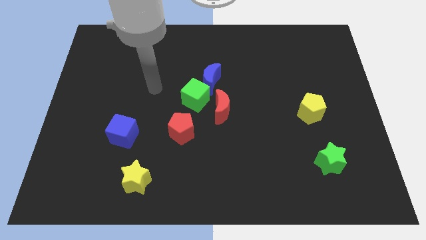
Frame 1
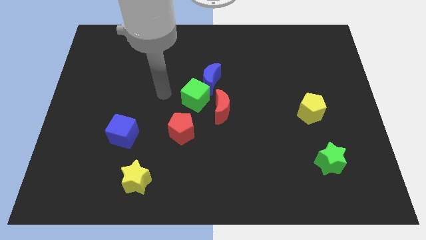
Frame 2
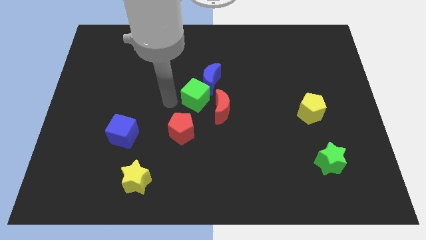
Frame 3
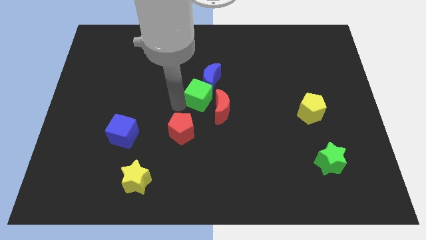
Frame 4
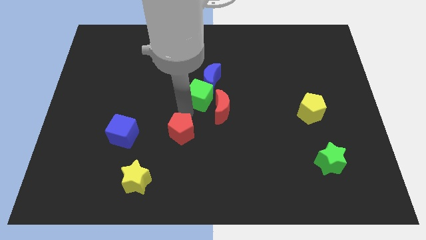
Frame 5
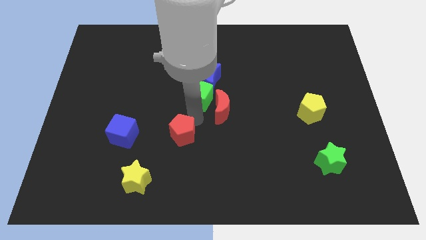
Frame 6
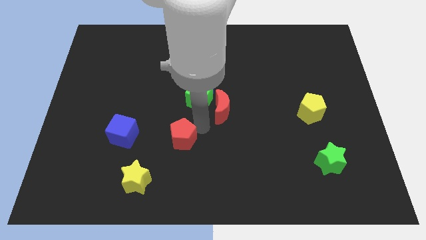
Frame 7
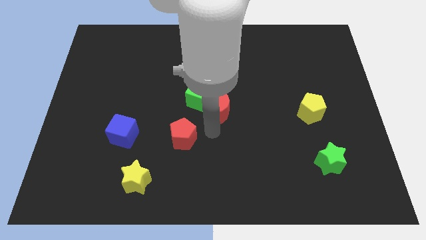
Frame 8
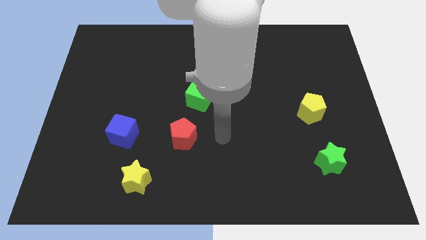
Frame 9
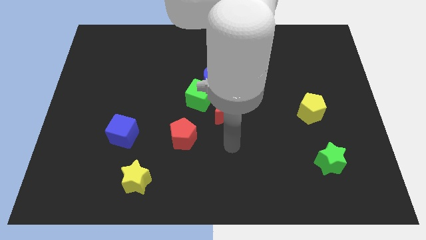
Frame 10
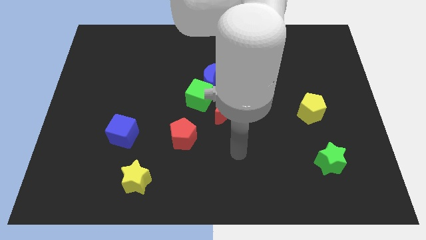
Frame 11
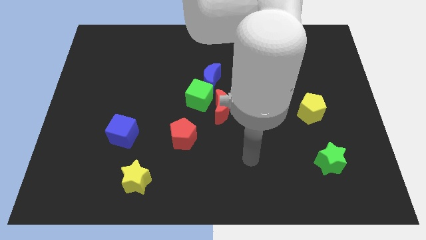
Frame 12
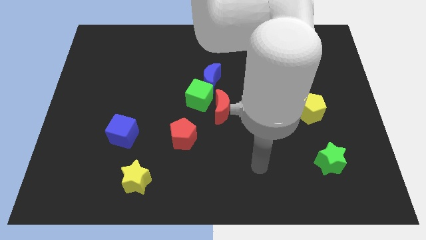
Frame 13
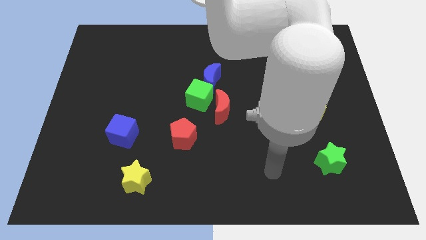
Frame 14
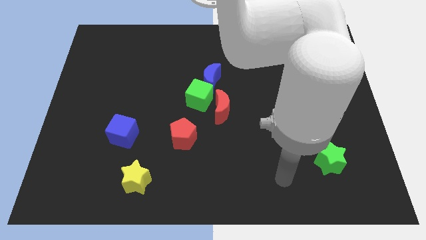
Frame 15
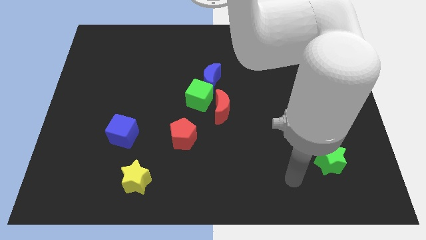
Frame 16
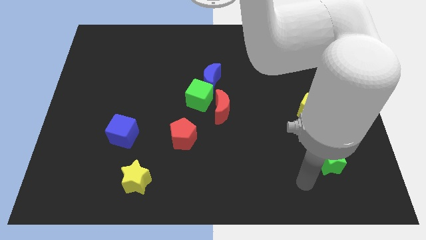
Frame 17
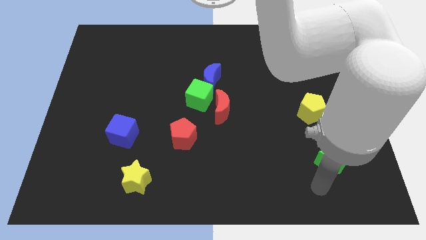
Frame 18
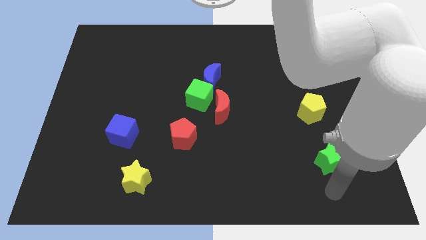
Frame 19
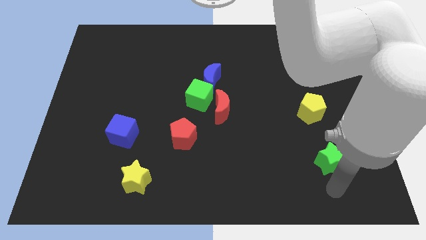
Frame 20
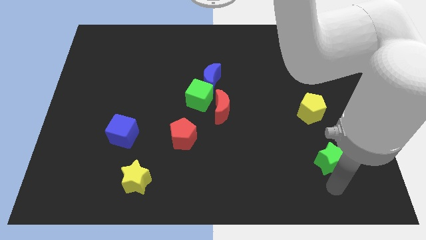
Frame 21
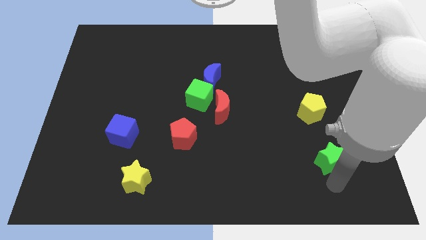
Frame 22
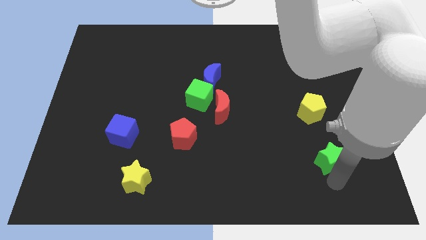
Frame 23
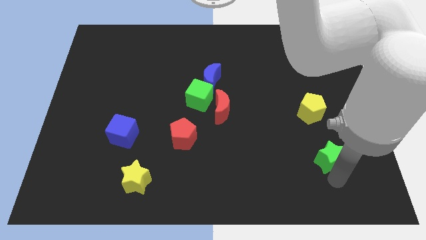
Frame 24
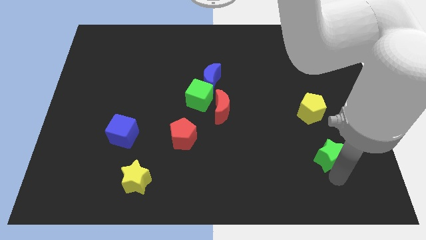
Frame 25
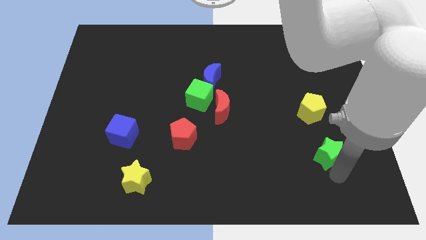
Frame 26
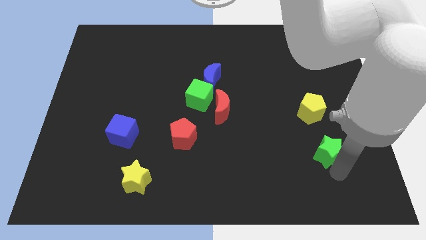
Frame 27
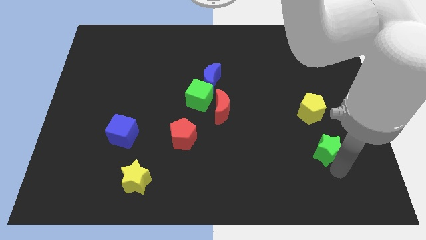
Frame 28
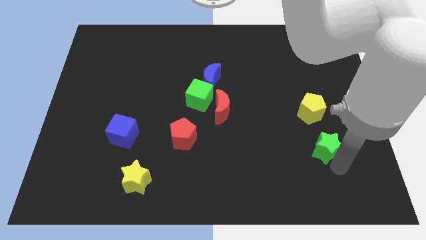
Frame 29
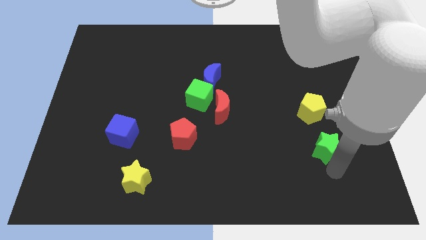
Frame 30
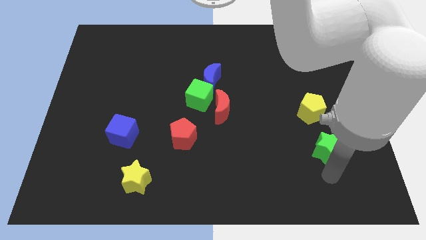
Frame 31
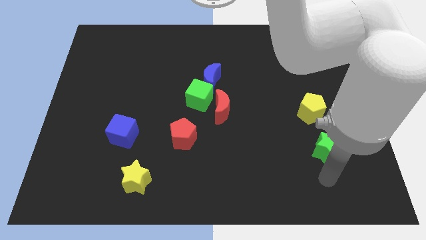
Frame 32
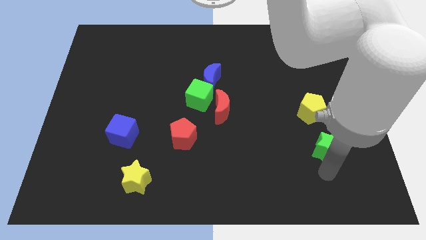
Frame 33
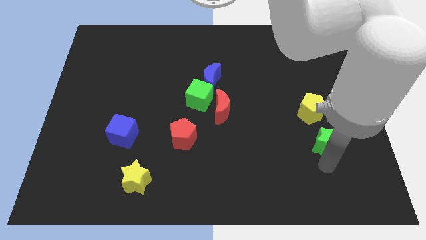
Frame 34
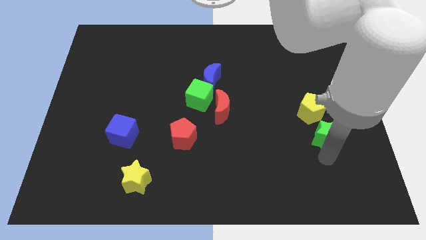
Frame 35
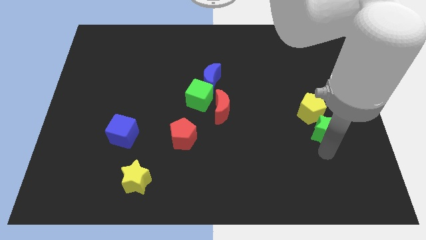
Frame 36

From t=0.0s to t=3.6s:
move the green star a bit upwards

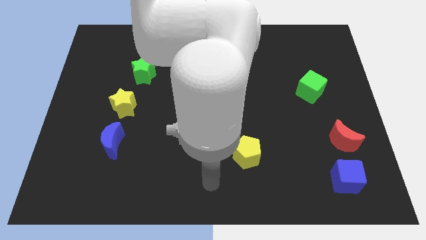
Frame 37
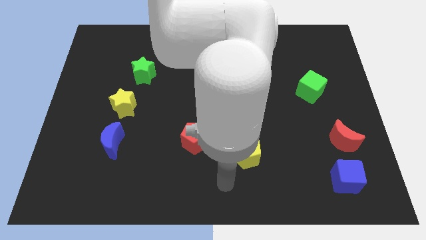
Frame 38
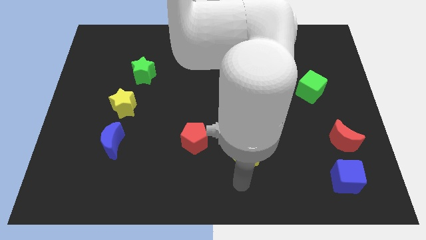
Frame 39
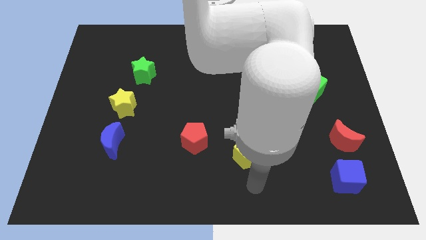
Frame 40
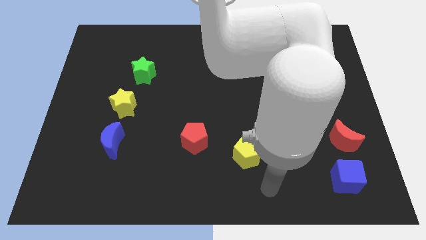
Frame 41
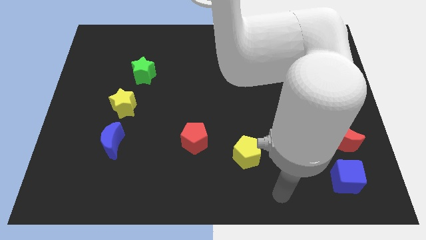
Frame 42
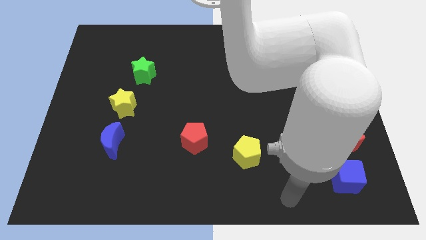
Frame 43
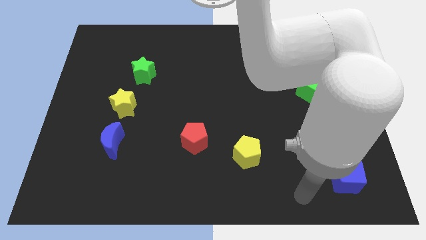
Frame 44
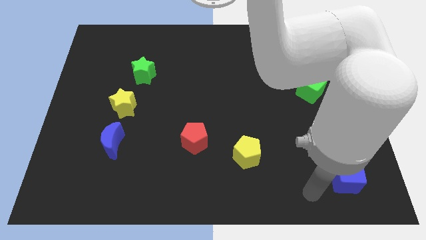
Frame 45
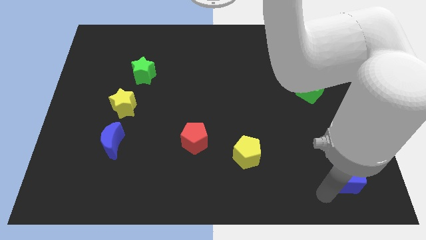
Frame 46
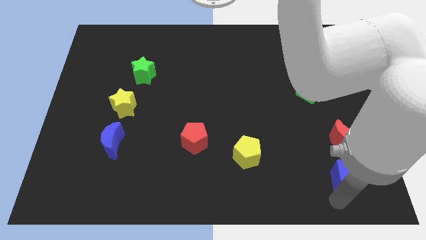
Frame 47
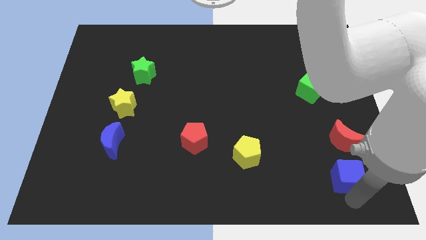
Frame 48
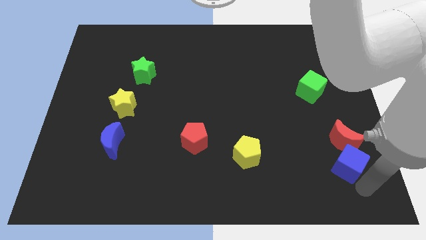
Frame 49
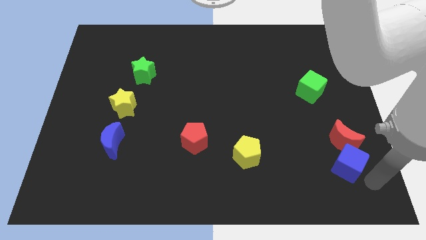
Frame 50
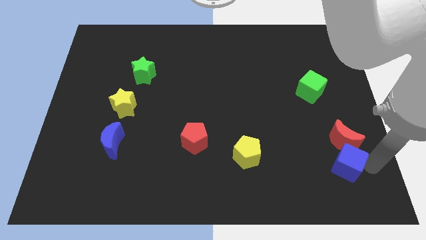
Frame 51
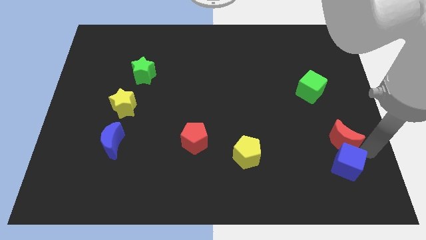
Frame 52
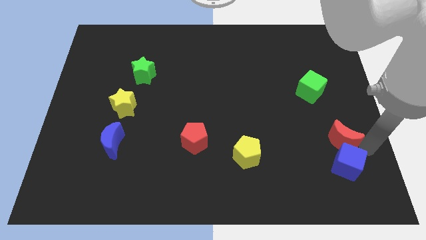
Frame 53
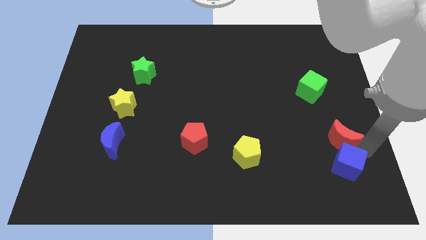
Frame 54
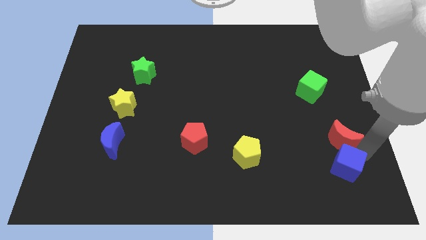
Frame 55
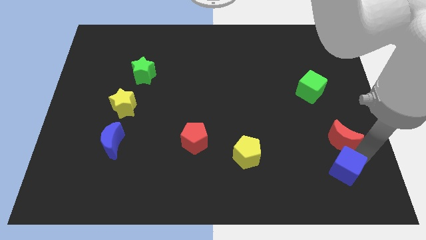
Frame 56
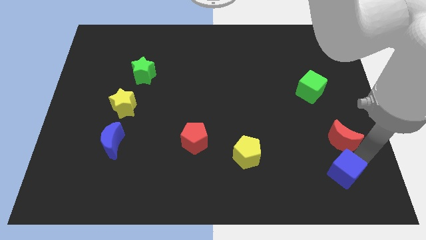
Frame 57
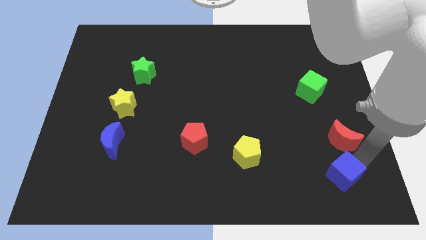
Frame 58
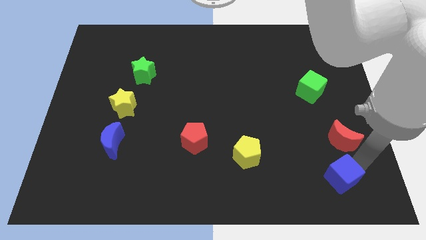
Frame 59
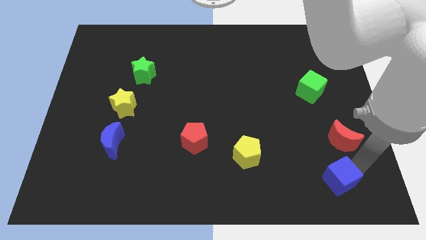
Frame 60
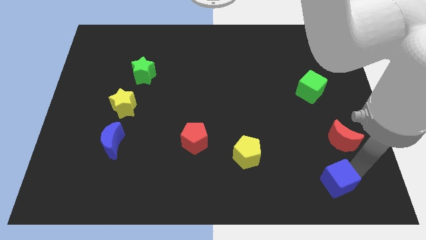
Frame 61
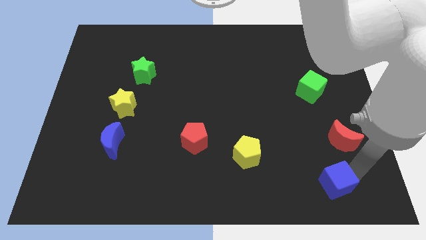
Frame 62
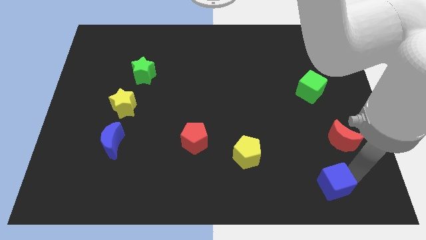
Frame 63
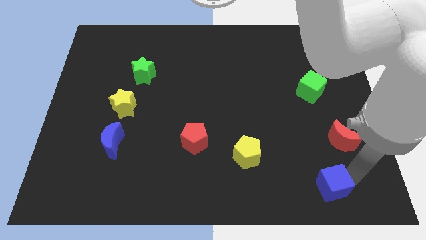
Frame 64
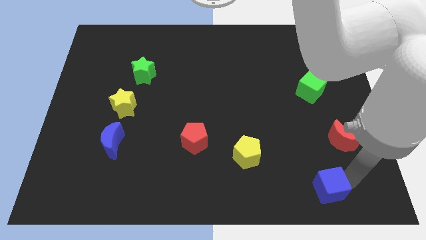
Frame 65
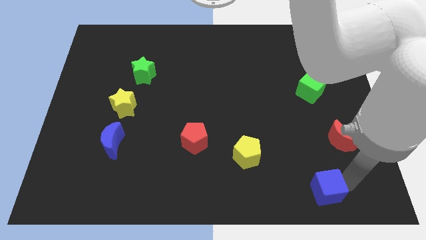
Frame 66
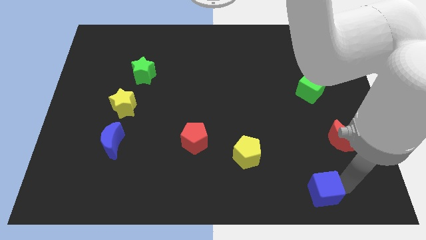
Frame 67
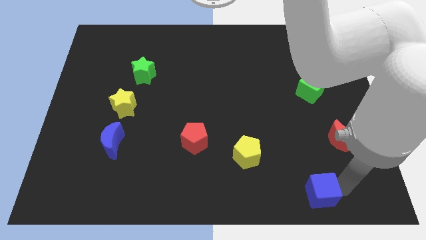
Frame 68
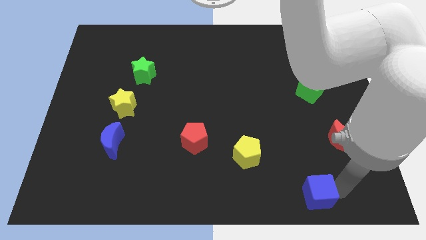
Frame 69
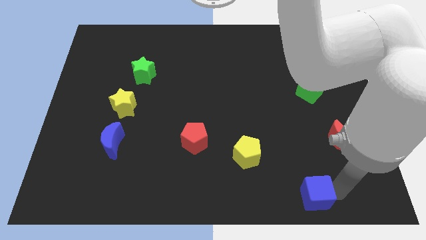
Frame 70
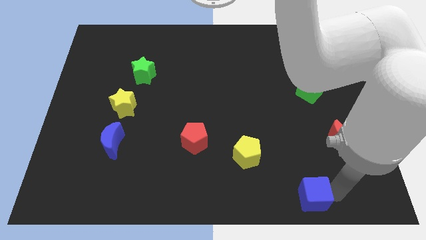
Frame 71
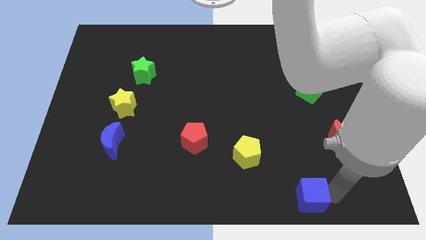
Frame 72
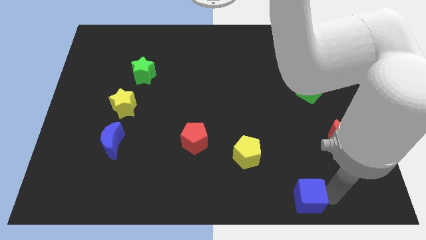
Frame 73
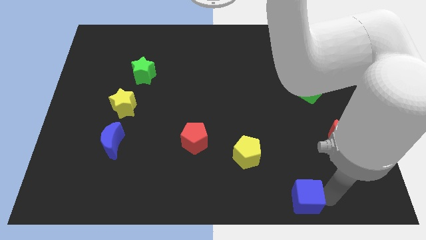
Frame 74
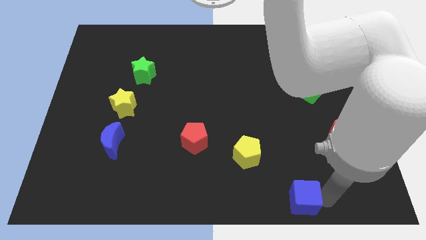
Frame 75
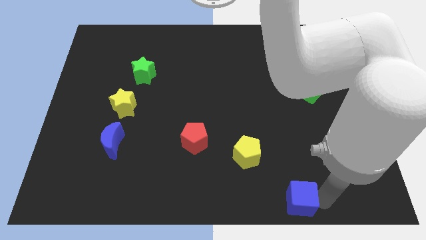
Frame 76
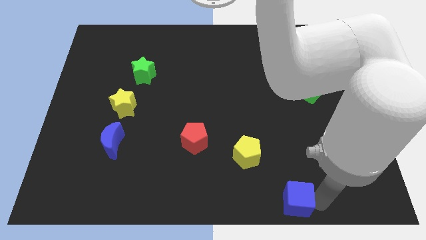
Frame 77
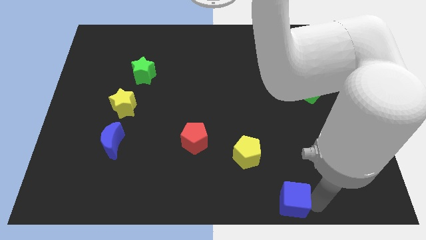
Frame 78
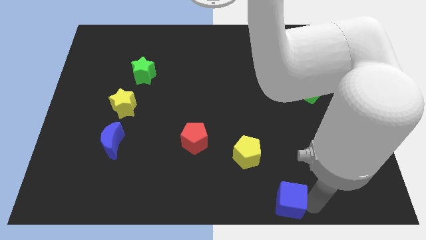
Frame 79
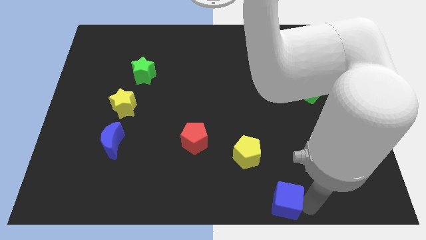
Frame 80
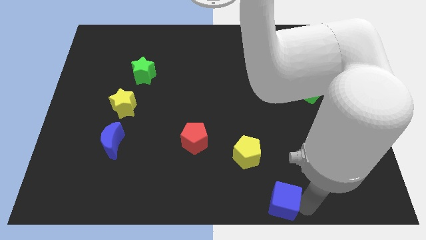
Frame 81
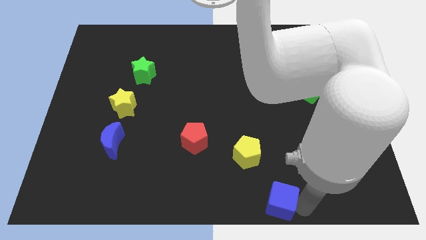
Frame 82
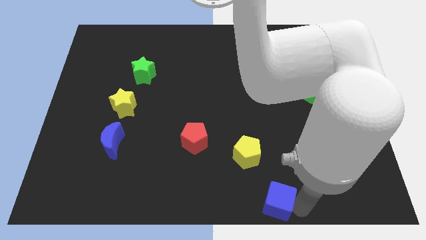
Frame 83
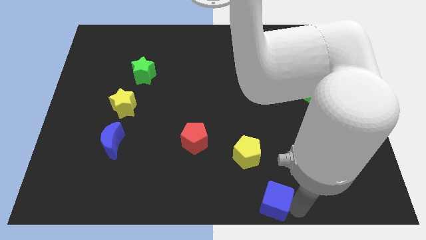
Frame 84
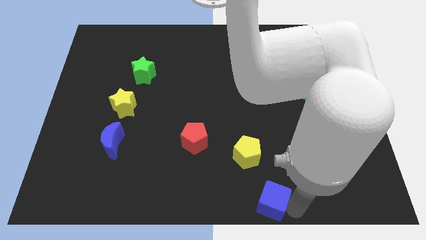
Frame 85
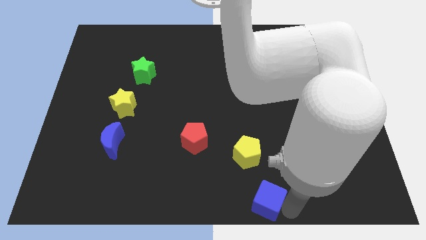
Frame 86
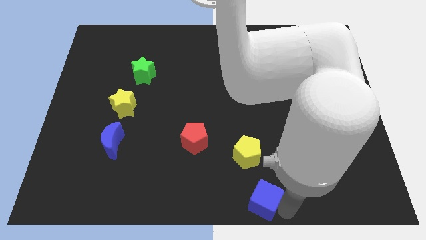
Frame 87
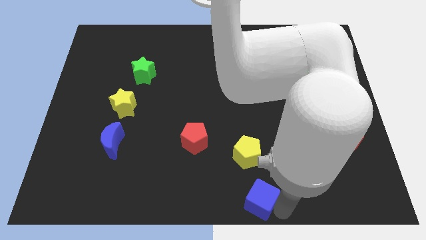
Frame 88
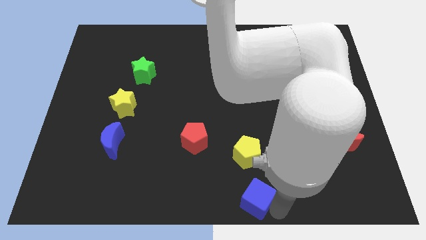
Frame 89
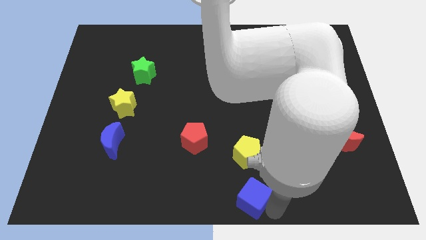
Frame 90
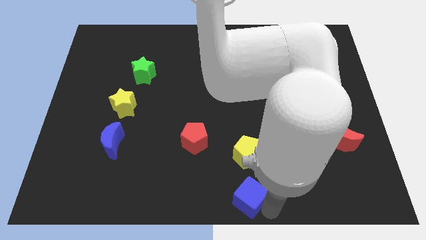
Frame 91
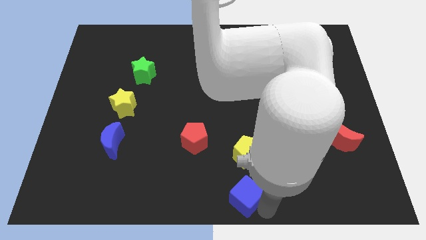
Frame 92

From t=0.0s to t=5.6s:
move the blue cube left
